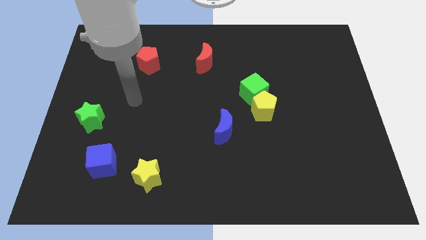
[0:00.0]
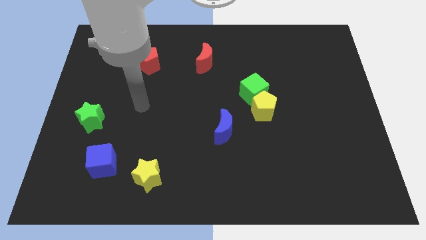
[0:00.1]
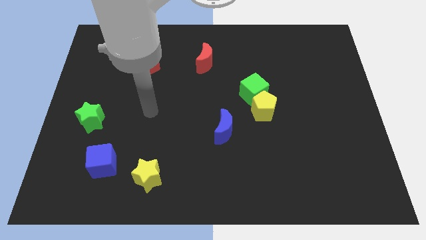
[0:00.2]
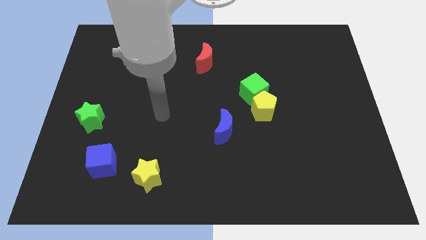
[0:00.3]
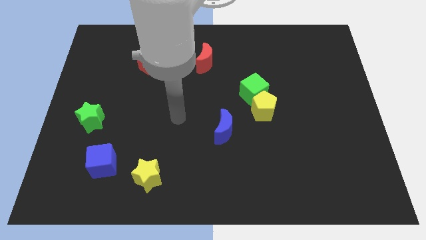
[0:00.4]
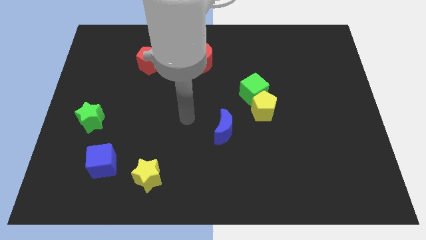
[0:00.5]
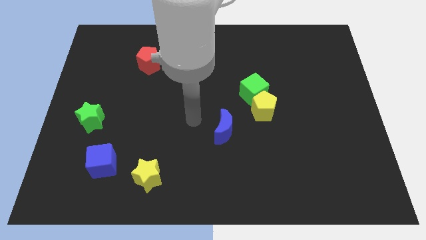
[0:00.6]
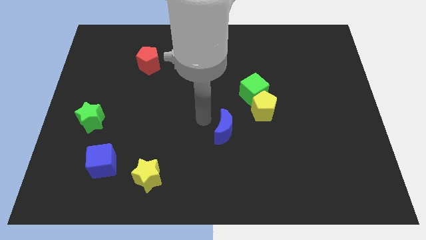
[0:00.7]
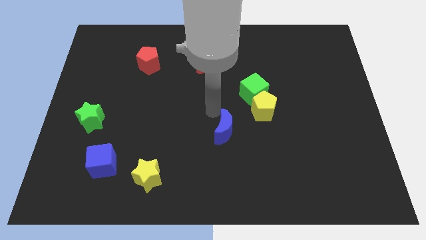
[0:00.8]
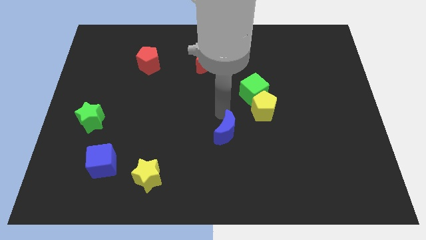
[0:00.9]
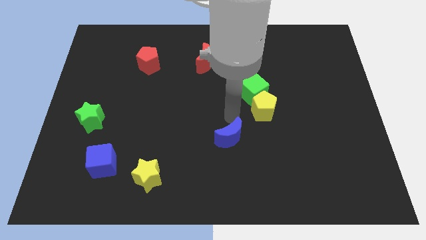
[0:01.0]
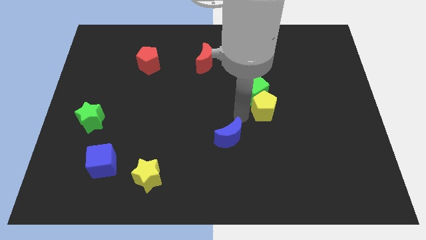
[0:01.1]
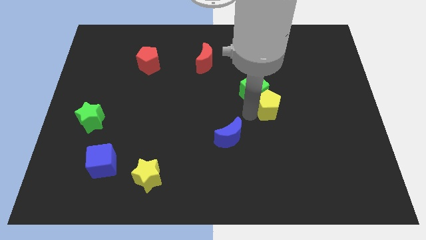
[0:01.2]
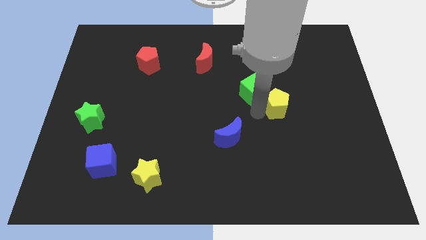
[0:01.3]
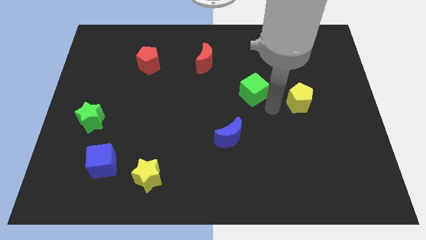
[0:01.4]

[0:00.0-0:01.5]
separate the green cube from the yellow pentagon

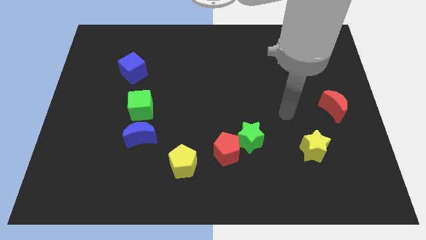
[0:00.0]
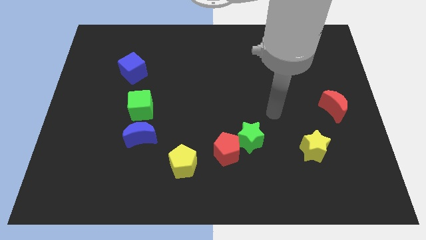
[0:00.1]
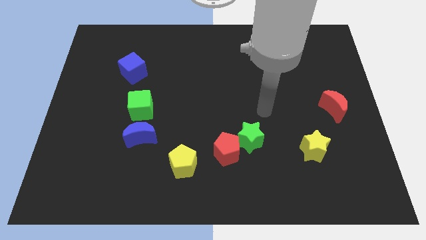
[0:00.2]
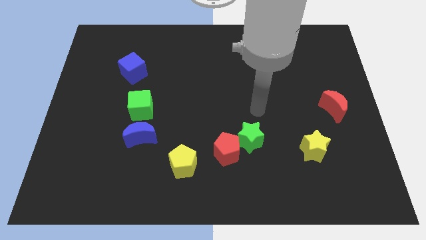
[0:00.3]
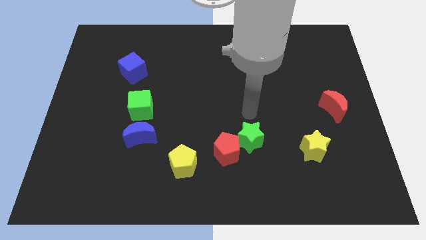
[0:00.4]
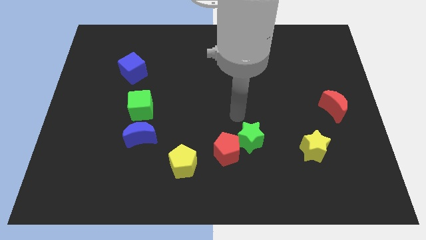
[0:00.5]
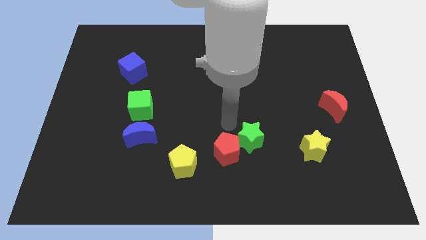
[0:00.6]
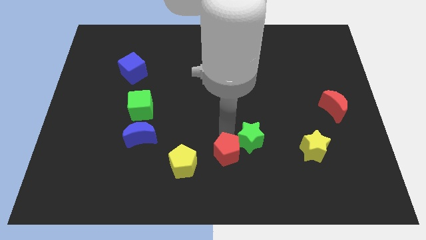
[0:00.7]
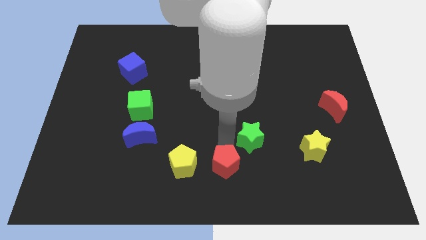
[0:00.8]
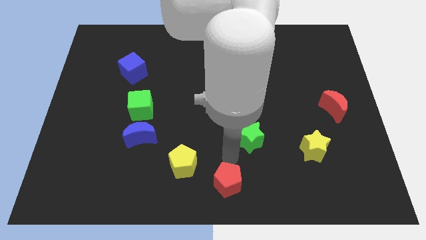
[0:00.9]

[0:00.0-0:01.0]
move the green star away from the red pentagon

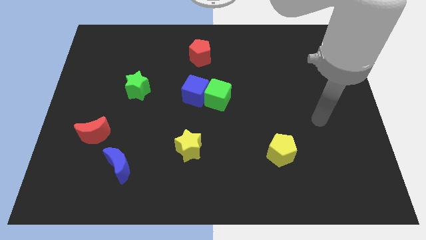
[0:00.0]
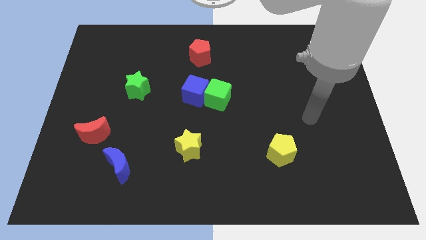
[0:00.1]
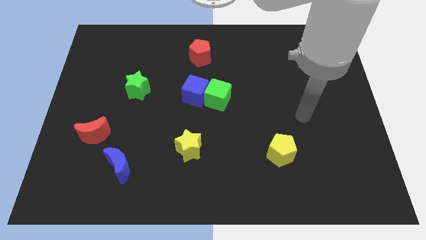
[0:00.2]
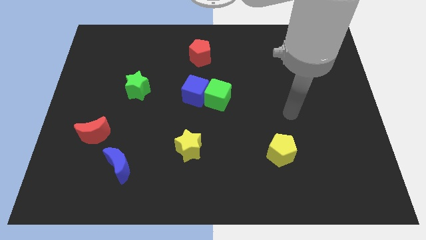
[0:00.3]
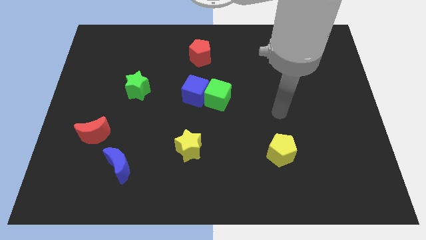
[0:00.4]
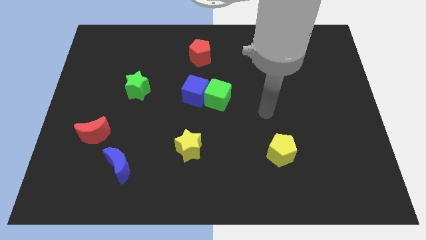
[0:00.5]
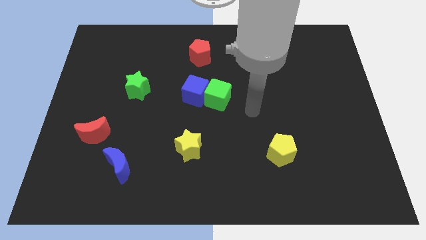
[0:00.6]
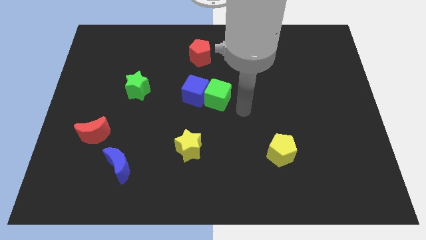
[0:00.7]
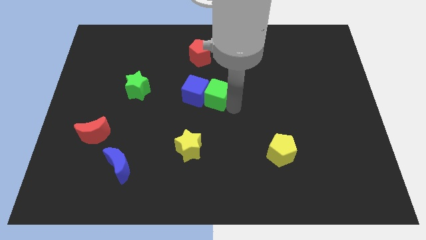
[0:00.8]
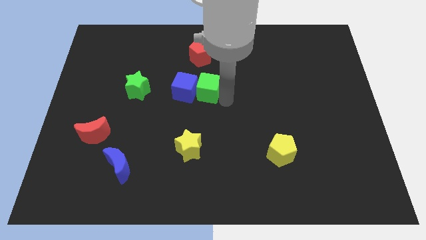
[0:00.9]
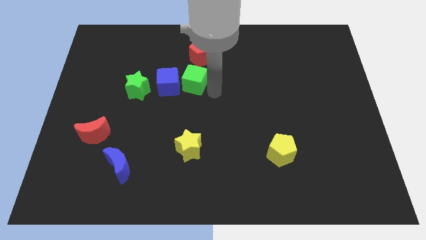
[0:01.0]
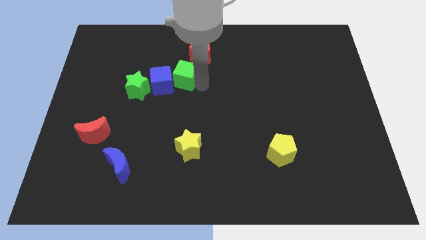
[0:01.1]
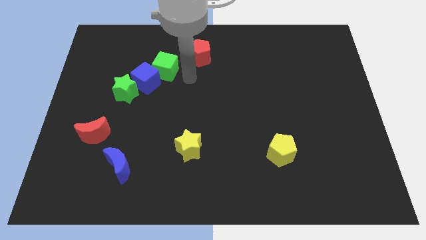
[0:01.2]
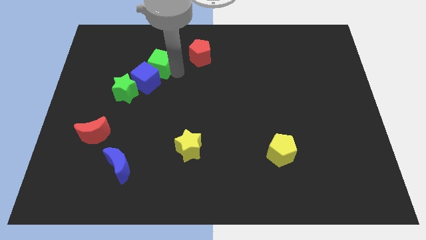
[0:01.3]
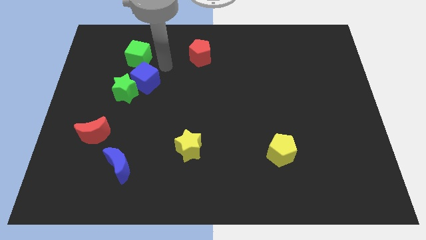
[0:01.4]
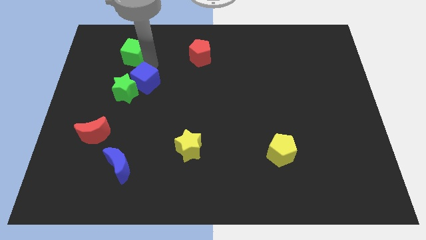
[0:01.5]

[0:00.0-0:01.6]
separate the blue cube from the green cube

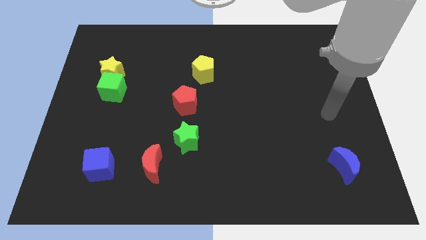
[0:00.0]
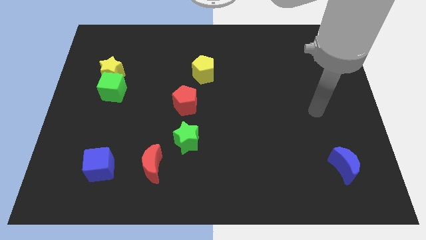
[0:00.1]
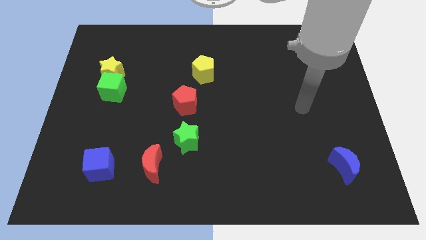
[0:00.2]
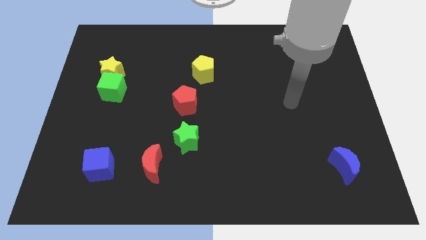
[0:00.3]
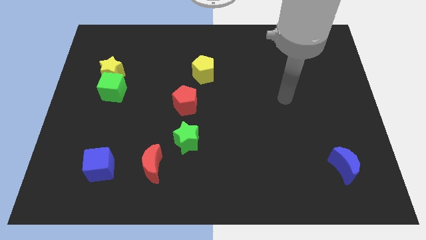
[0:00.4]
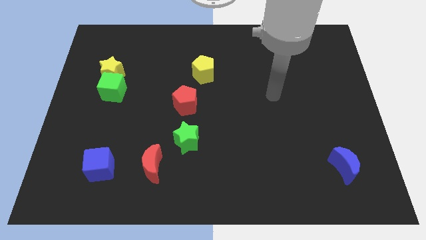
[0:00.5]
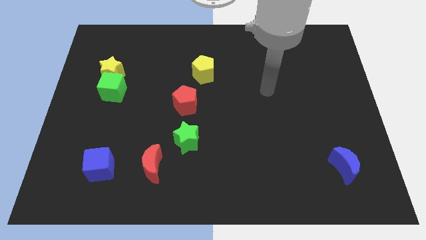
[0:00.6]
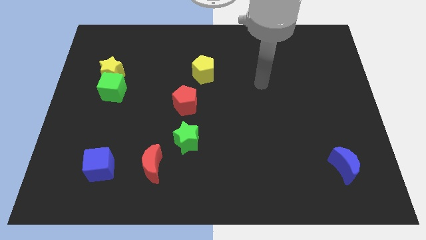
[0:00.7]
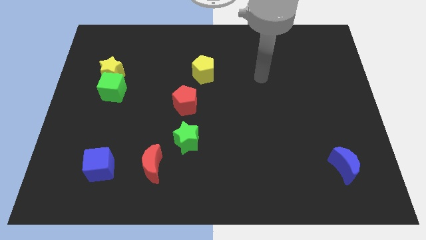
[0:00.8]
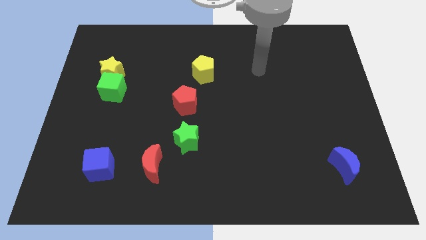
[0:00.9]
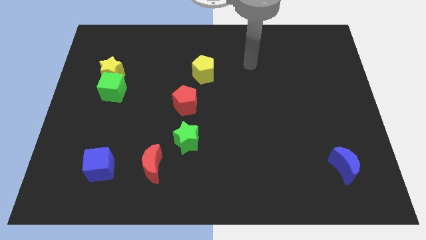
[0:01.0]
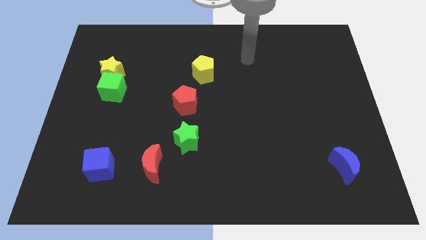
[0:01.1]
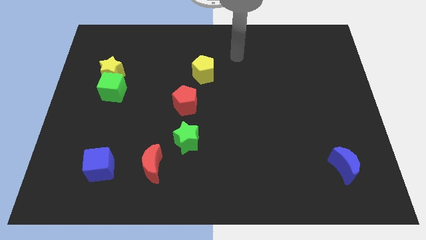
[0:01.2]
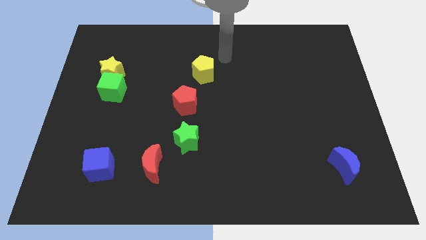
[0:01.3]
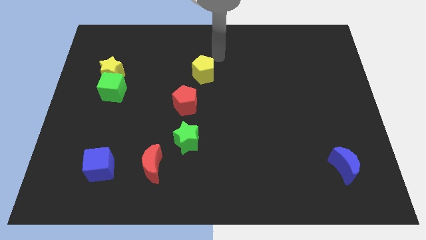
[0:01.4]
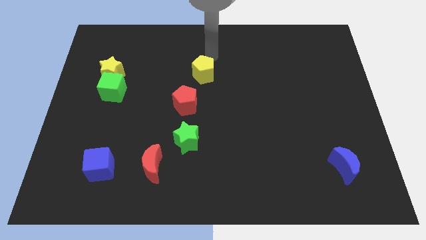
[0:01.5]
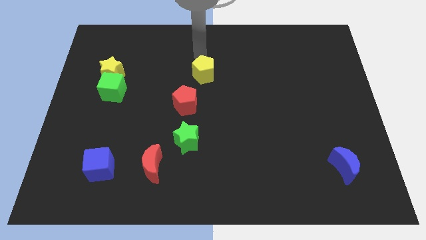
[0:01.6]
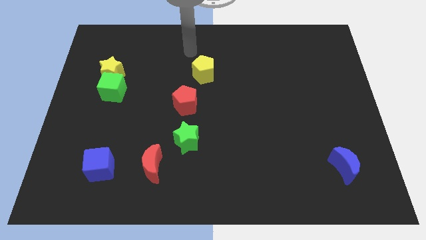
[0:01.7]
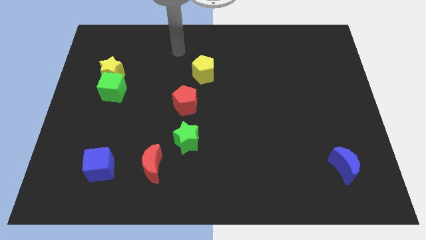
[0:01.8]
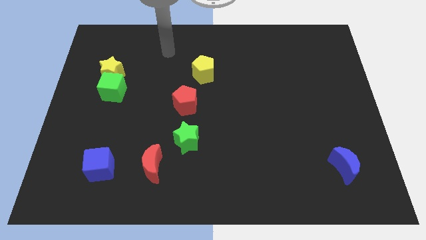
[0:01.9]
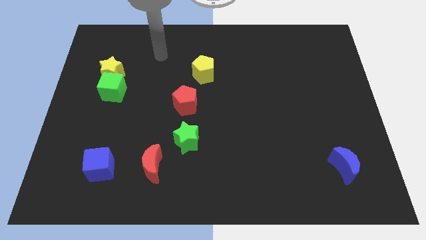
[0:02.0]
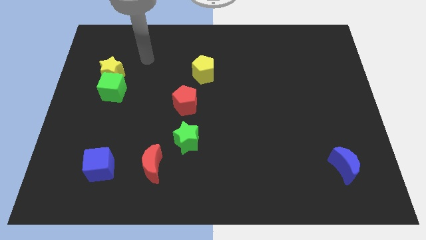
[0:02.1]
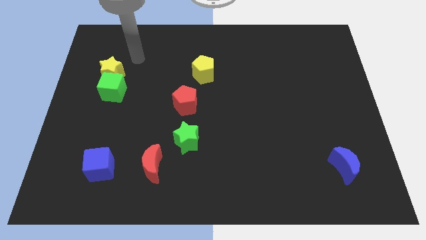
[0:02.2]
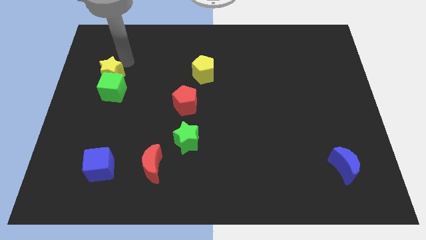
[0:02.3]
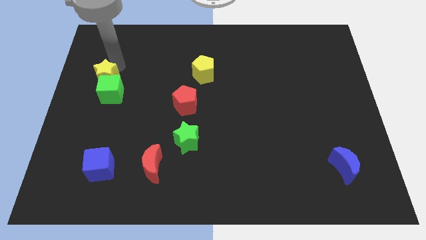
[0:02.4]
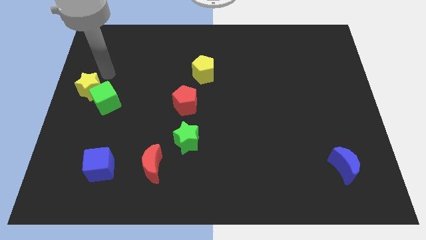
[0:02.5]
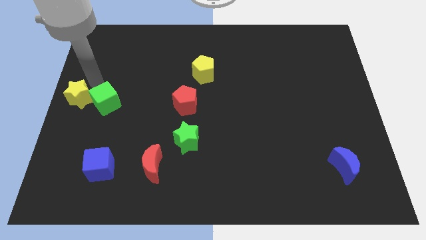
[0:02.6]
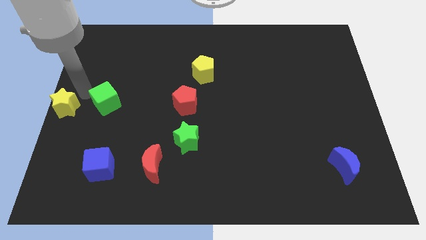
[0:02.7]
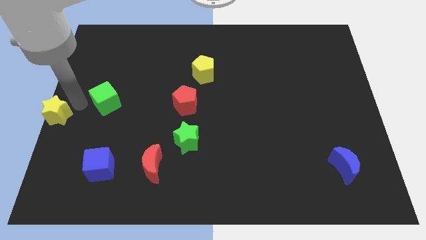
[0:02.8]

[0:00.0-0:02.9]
pull the green cube apart from the yellow star

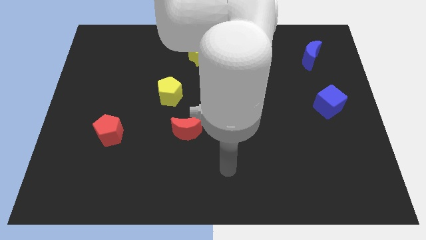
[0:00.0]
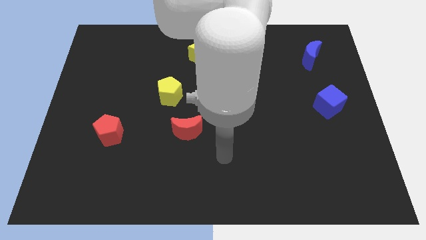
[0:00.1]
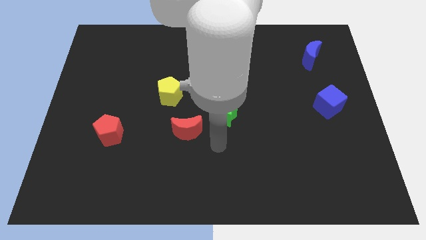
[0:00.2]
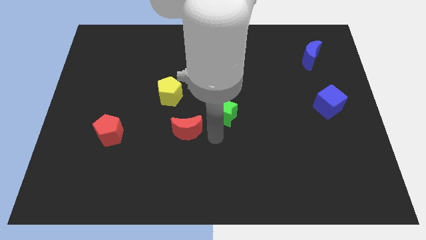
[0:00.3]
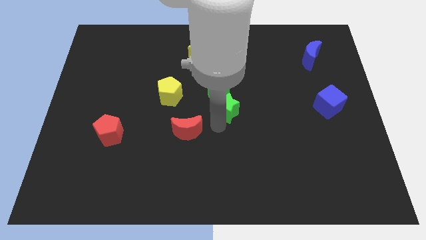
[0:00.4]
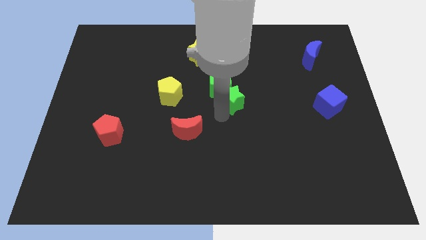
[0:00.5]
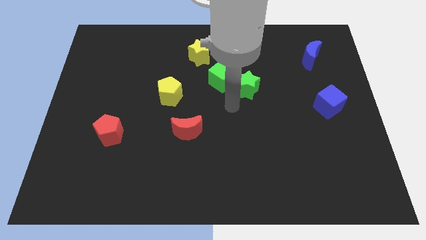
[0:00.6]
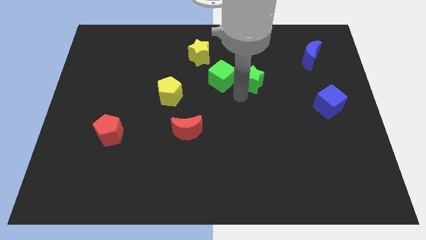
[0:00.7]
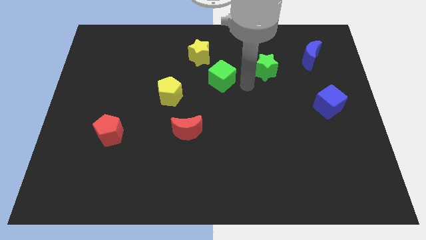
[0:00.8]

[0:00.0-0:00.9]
separate the green cube from the green star

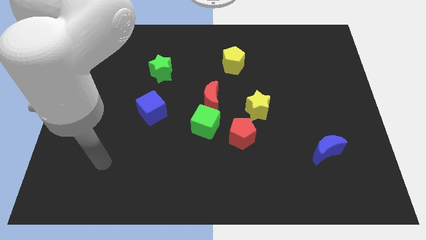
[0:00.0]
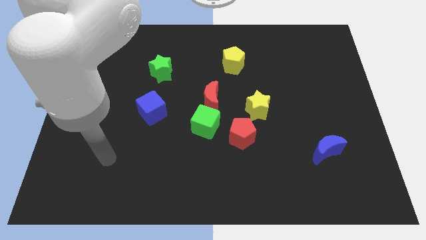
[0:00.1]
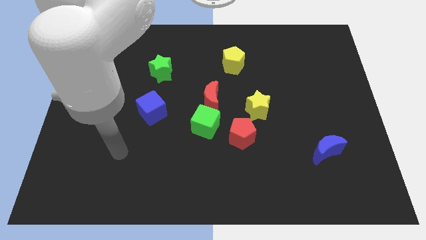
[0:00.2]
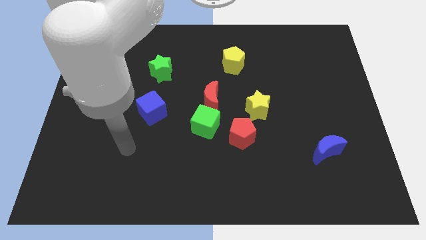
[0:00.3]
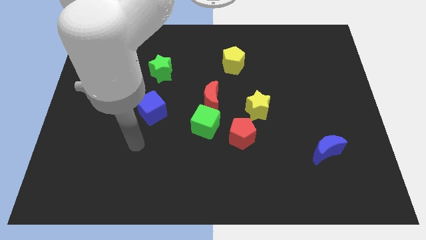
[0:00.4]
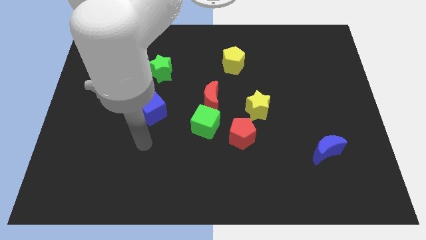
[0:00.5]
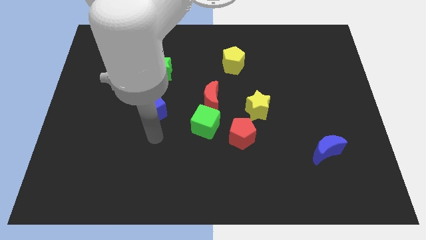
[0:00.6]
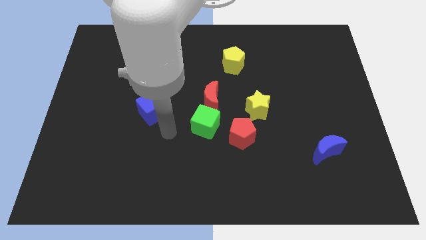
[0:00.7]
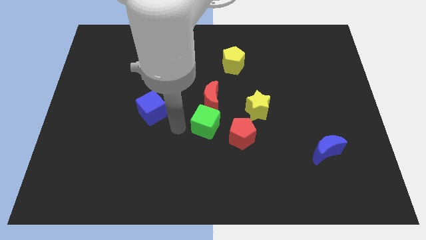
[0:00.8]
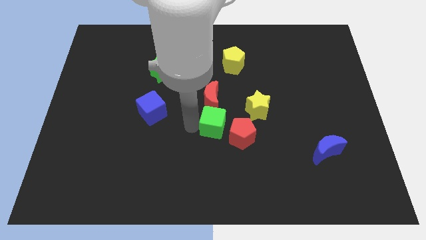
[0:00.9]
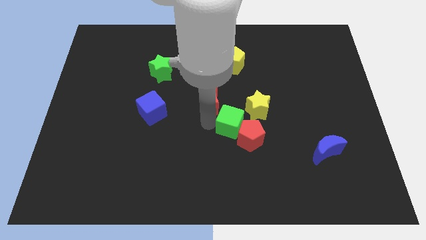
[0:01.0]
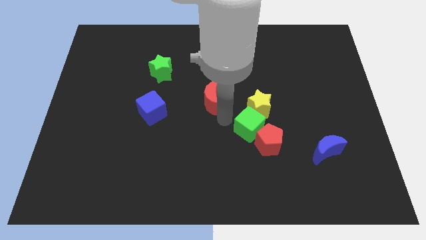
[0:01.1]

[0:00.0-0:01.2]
separate the red moon from the green cube
